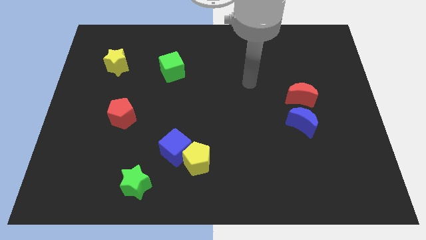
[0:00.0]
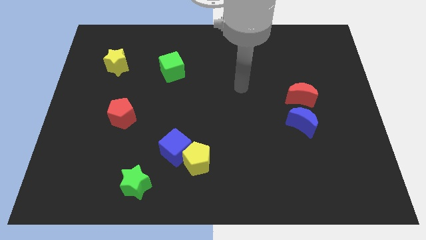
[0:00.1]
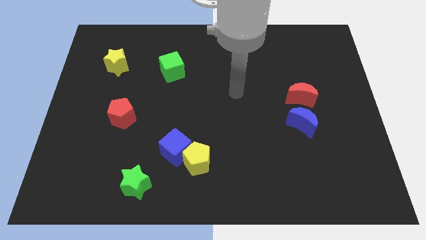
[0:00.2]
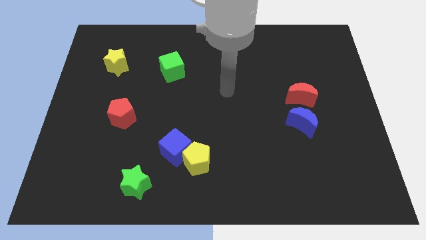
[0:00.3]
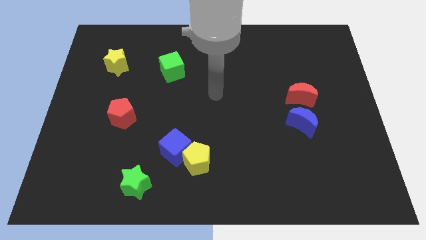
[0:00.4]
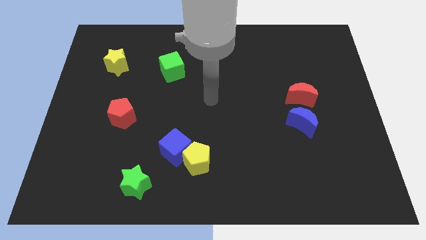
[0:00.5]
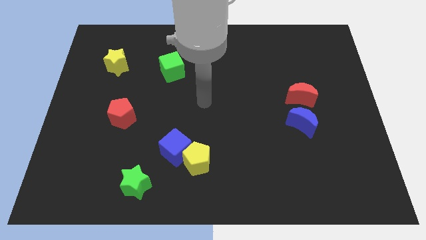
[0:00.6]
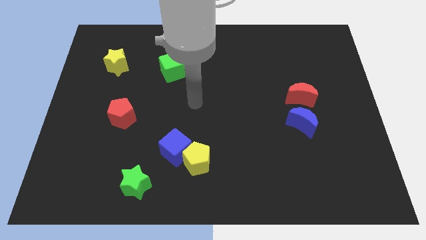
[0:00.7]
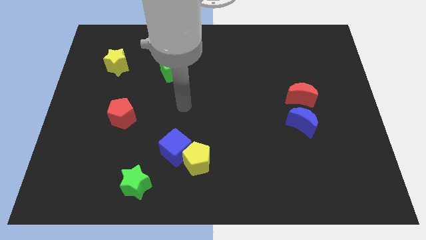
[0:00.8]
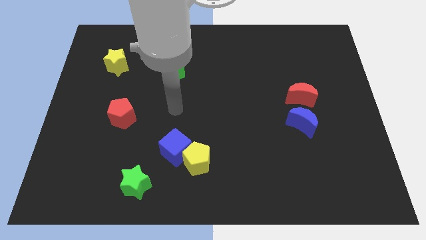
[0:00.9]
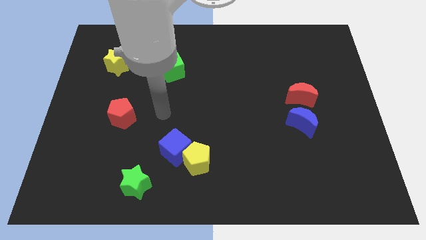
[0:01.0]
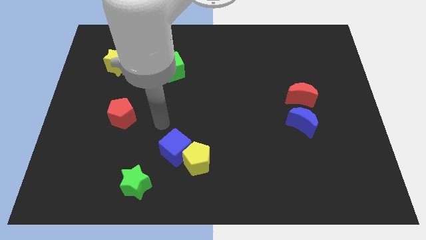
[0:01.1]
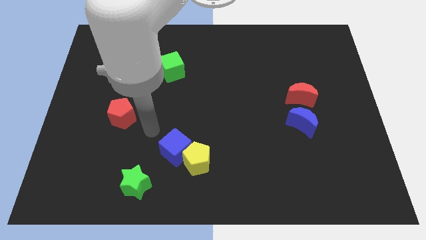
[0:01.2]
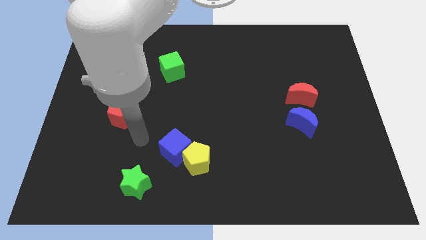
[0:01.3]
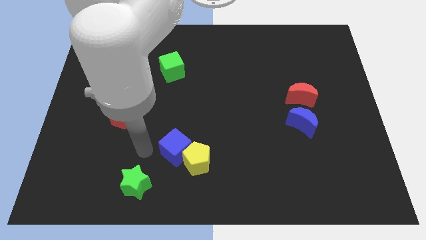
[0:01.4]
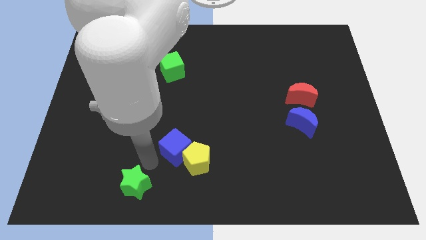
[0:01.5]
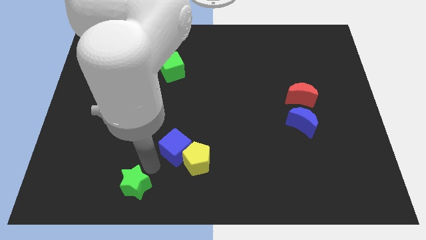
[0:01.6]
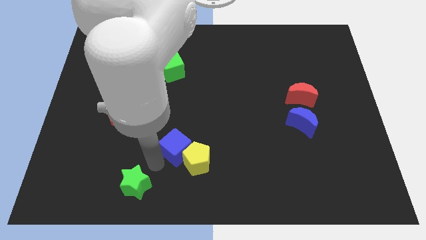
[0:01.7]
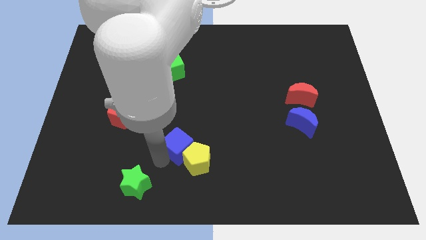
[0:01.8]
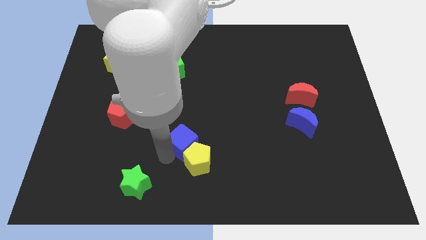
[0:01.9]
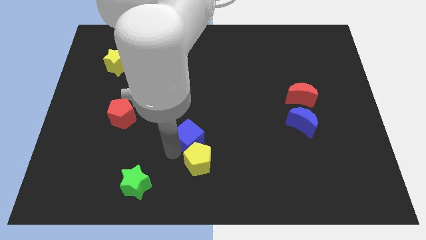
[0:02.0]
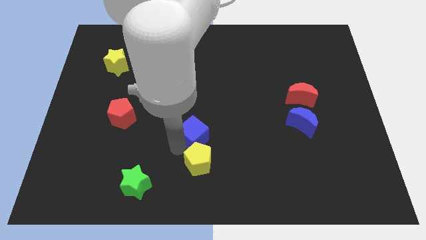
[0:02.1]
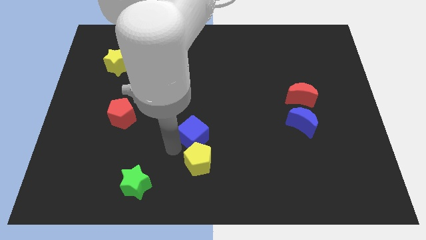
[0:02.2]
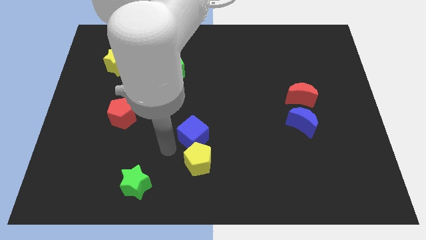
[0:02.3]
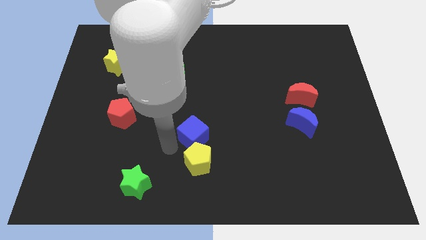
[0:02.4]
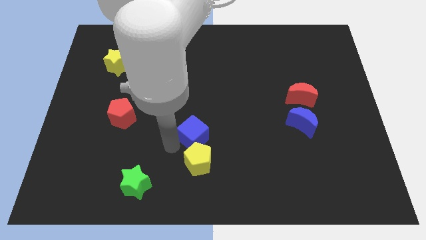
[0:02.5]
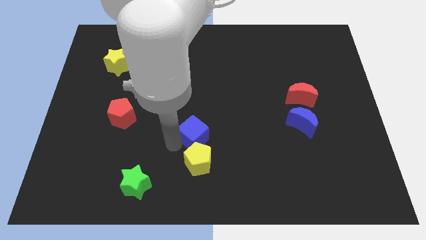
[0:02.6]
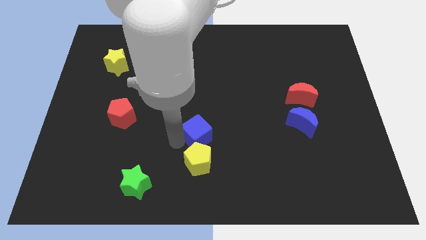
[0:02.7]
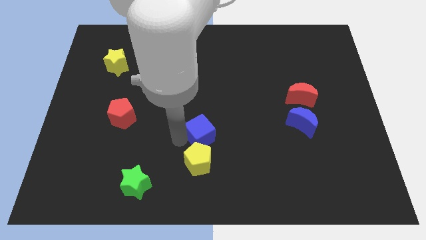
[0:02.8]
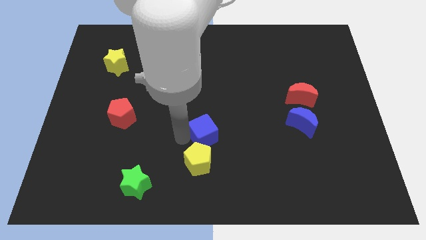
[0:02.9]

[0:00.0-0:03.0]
slide the blue cube up and then right a little bit

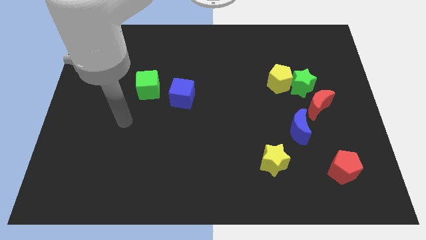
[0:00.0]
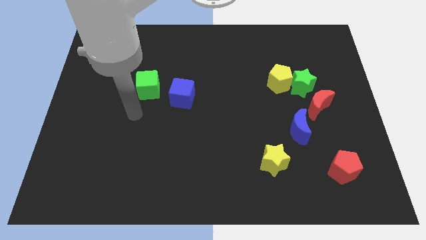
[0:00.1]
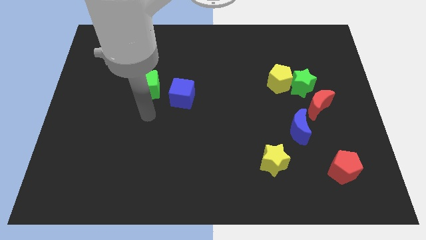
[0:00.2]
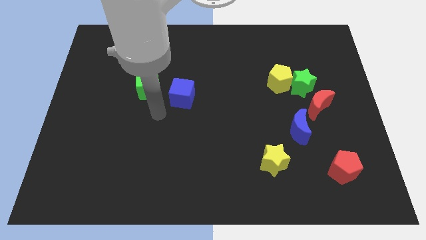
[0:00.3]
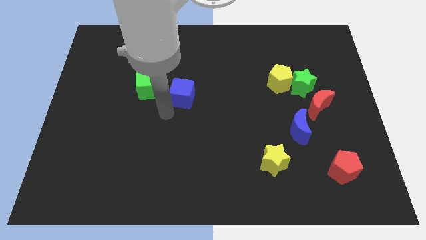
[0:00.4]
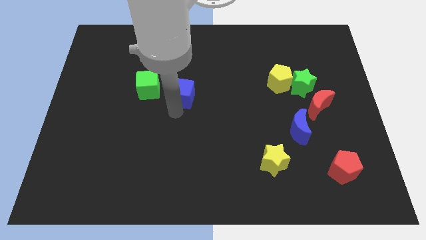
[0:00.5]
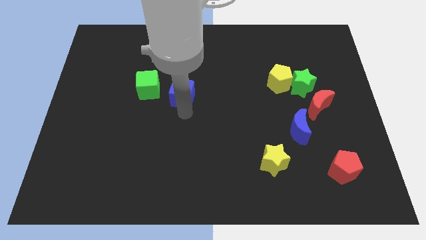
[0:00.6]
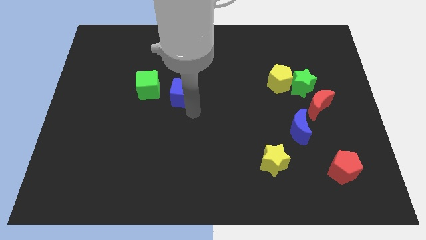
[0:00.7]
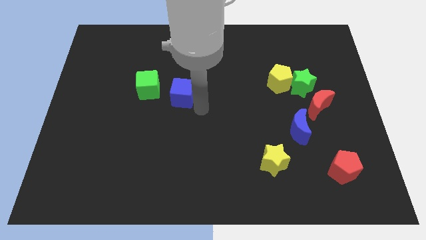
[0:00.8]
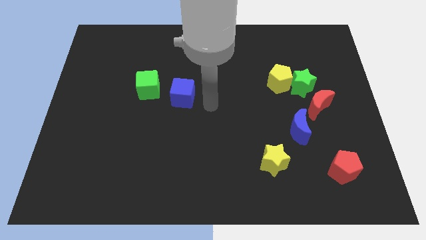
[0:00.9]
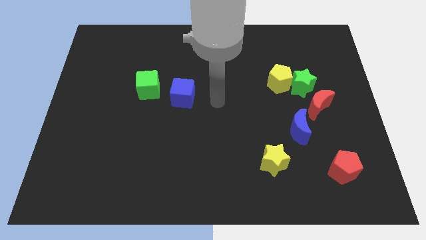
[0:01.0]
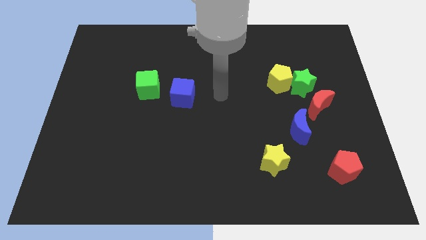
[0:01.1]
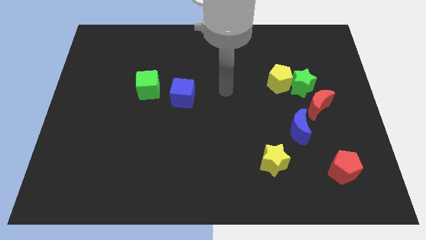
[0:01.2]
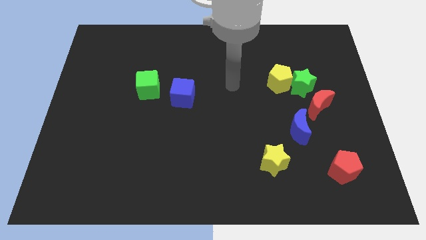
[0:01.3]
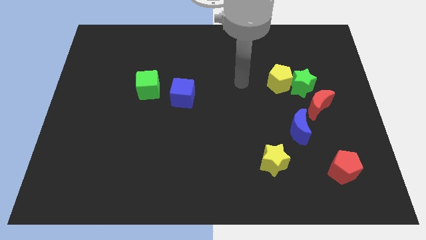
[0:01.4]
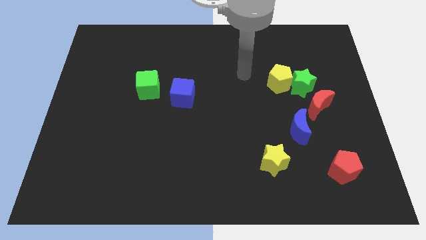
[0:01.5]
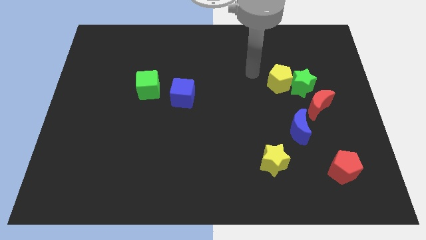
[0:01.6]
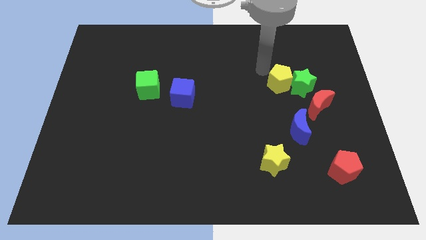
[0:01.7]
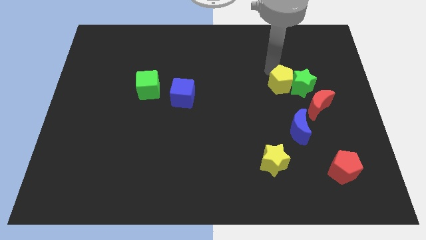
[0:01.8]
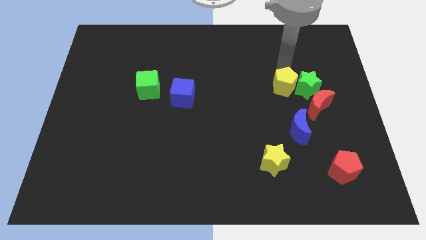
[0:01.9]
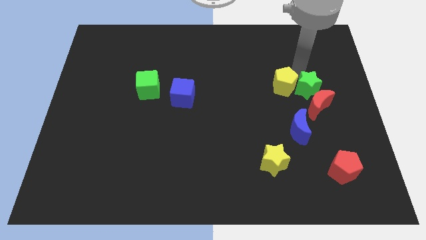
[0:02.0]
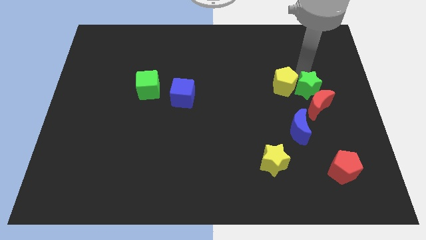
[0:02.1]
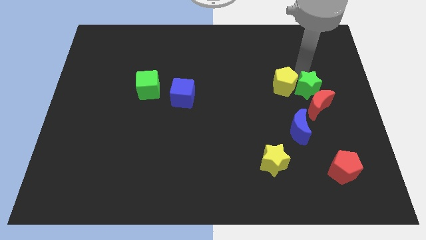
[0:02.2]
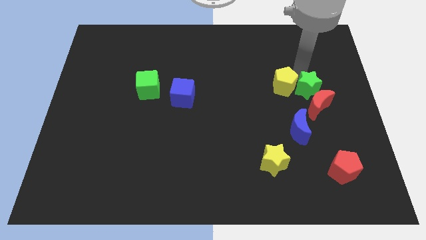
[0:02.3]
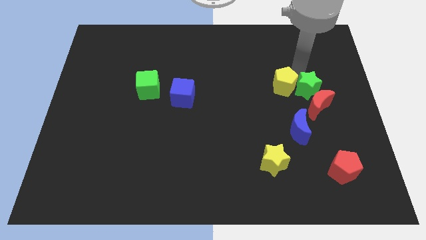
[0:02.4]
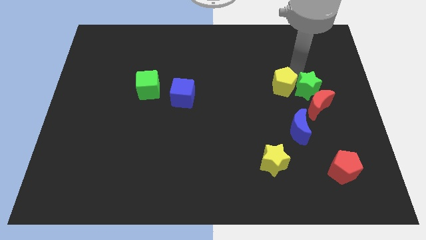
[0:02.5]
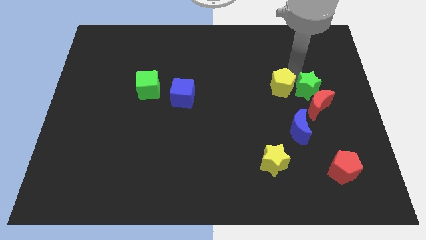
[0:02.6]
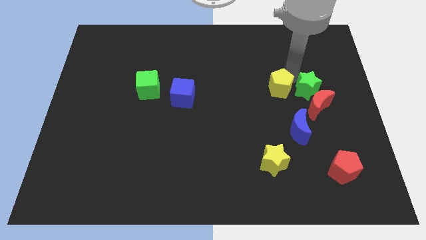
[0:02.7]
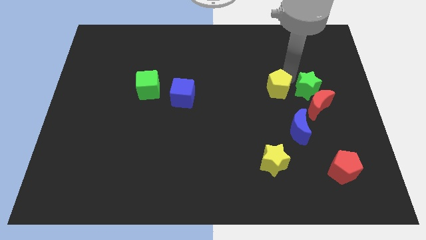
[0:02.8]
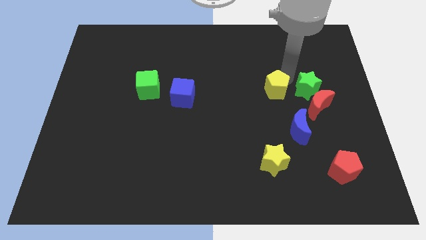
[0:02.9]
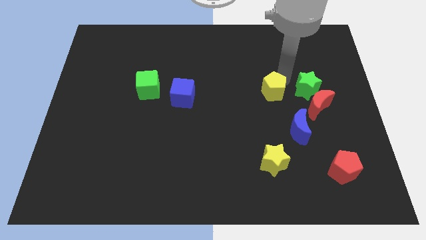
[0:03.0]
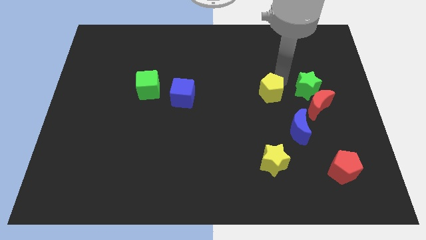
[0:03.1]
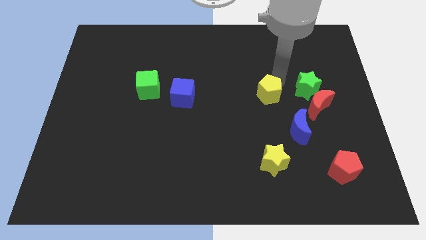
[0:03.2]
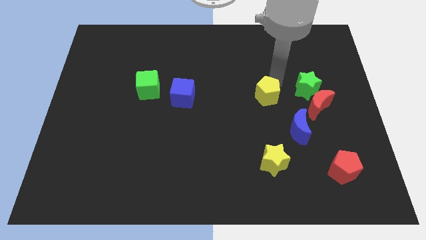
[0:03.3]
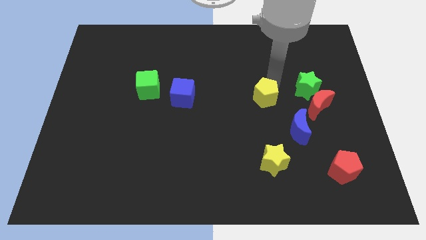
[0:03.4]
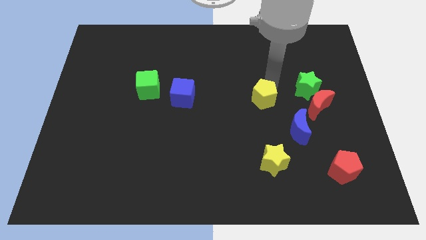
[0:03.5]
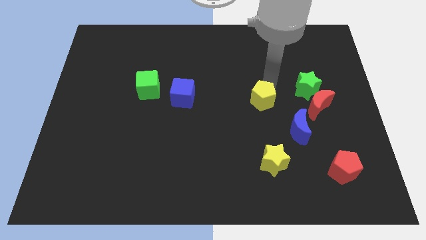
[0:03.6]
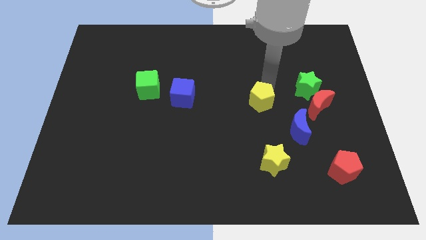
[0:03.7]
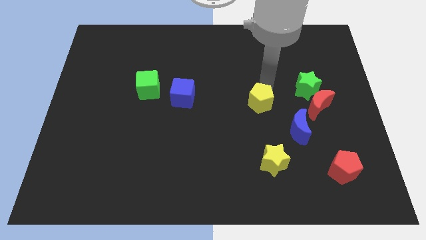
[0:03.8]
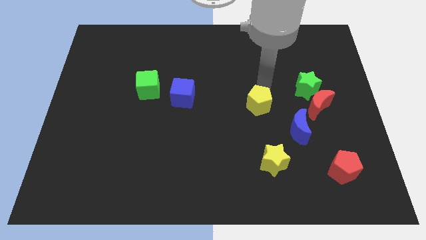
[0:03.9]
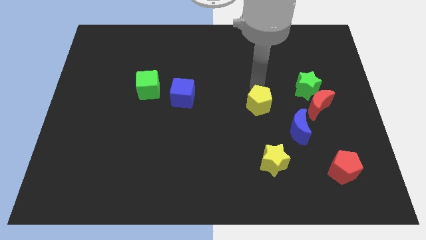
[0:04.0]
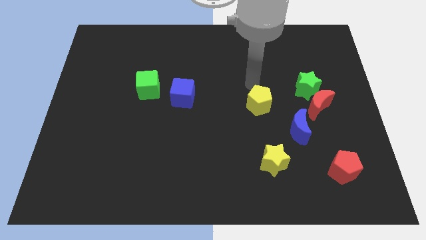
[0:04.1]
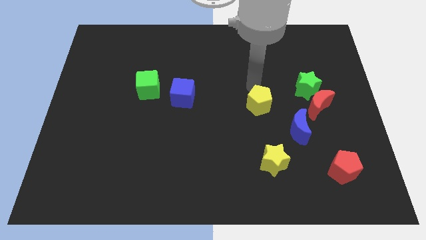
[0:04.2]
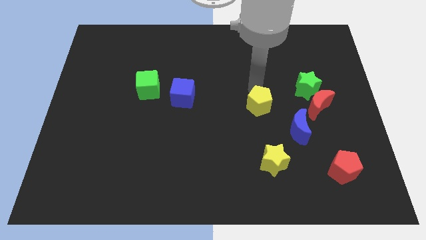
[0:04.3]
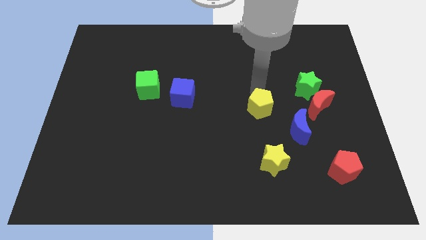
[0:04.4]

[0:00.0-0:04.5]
push the yellow pentagon downwards a bit

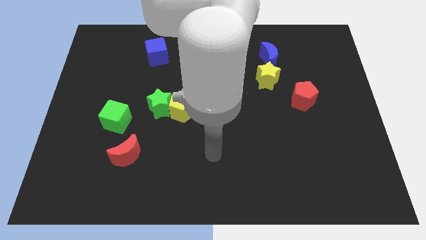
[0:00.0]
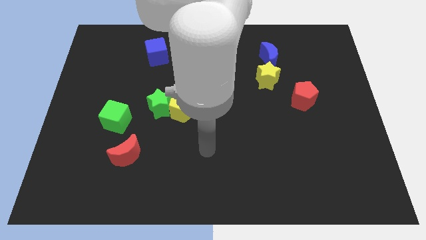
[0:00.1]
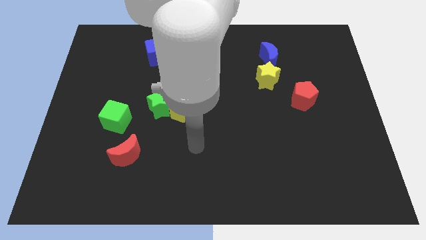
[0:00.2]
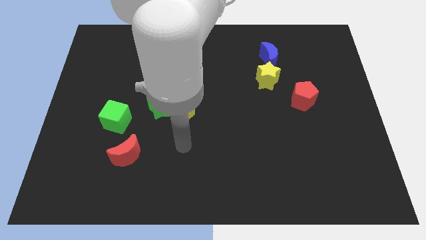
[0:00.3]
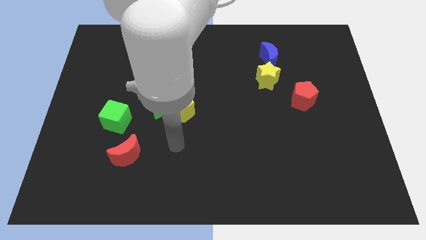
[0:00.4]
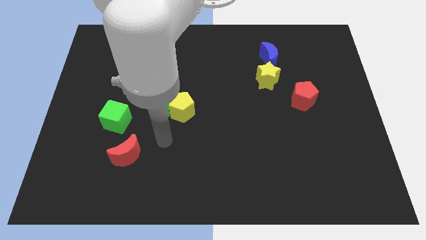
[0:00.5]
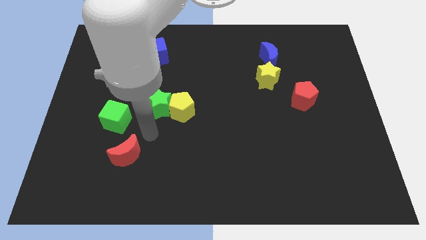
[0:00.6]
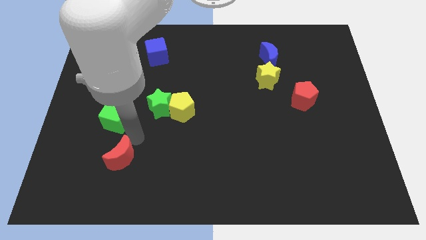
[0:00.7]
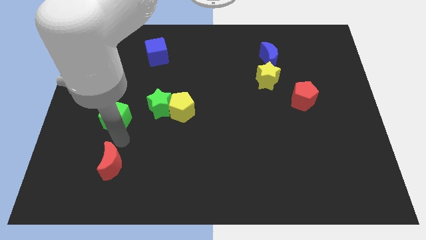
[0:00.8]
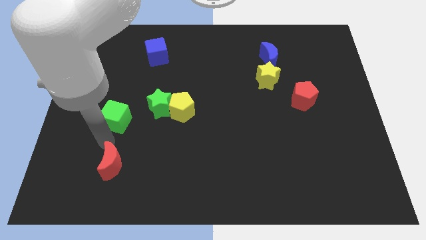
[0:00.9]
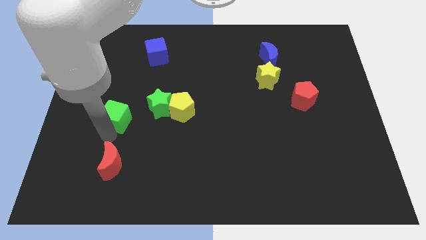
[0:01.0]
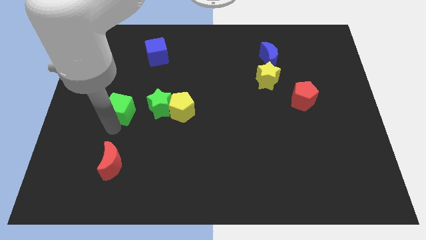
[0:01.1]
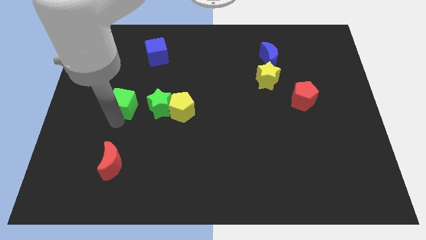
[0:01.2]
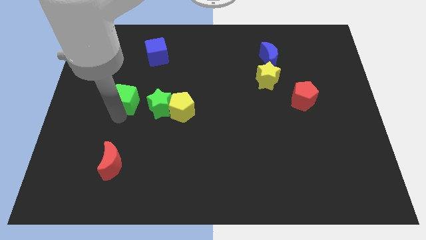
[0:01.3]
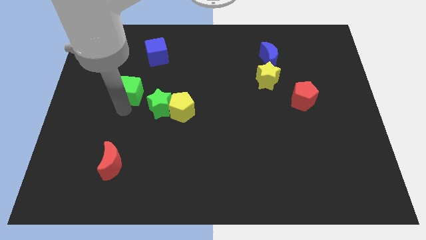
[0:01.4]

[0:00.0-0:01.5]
push the green cube upwards somewhat
